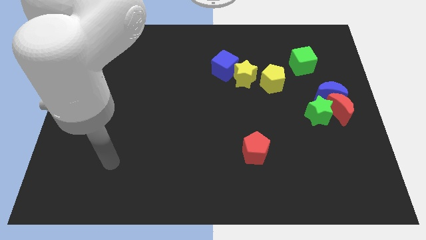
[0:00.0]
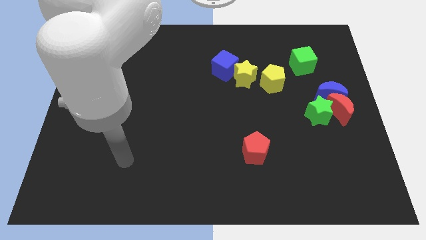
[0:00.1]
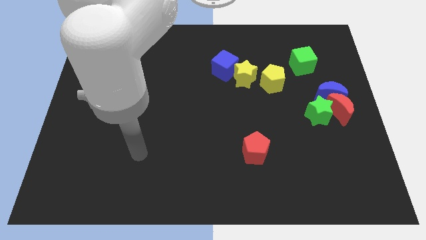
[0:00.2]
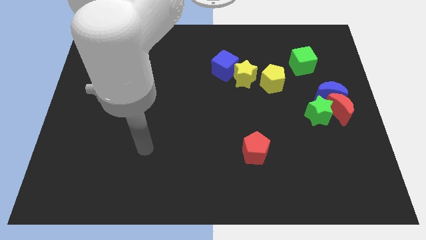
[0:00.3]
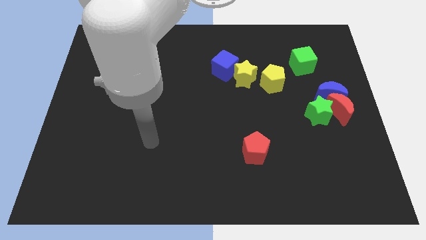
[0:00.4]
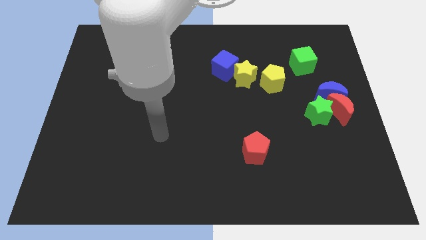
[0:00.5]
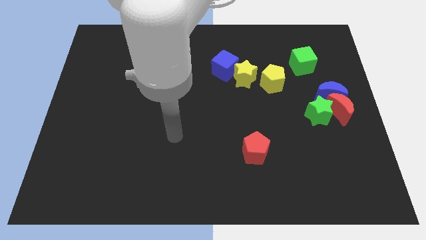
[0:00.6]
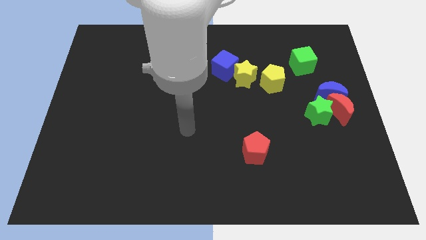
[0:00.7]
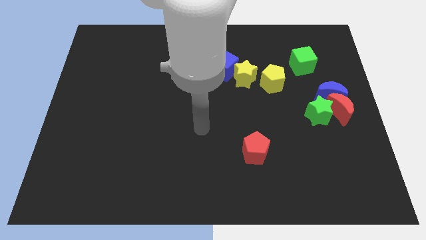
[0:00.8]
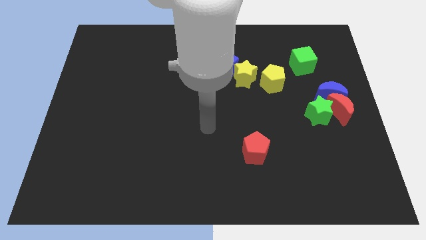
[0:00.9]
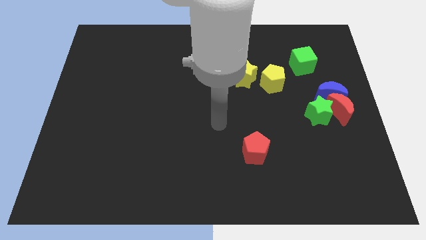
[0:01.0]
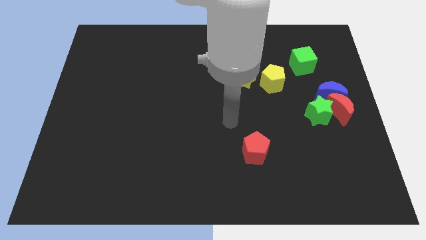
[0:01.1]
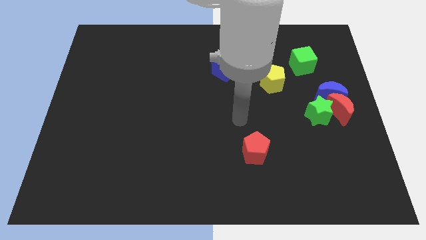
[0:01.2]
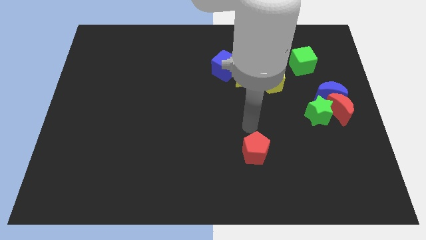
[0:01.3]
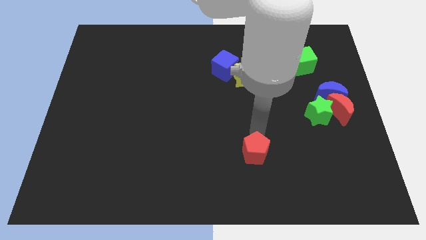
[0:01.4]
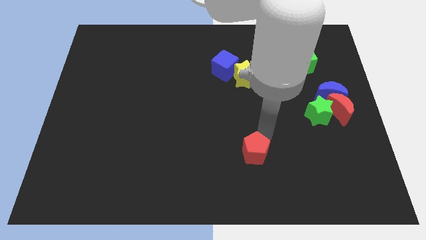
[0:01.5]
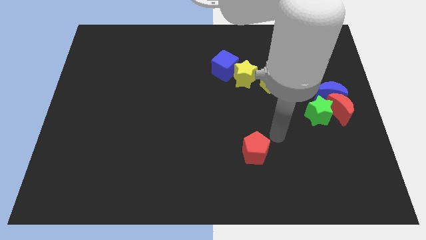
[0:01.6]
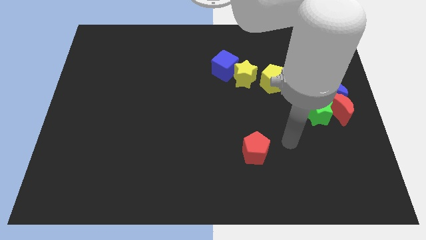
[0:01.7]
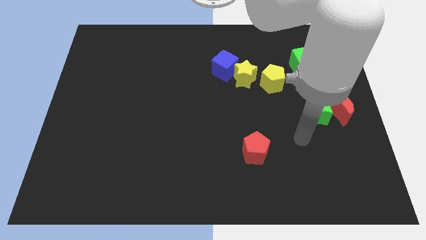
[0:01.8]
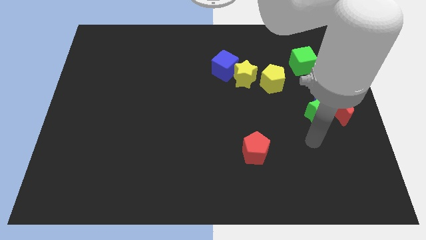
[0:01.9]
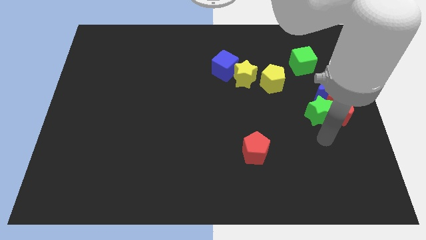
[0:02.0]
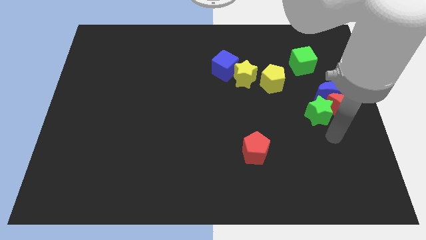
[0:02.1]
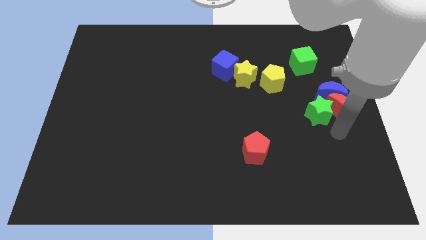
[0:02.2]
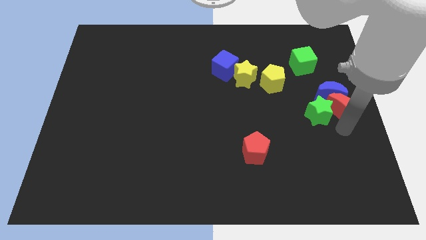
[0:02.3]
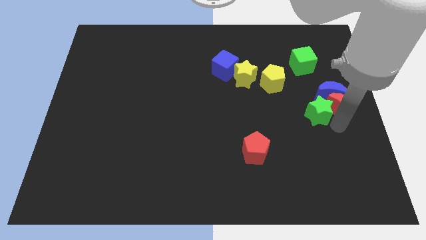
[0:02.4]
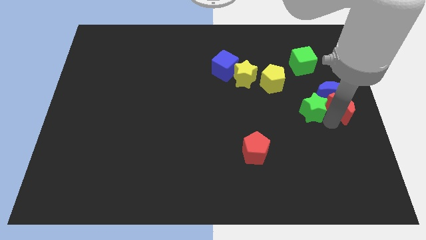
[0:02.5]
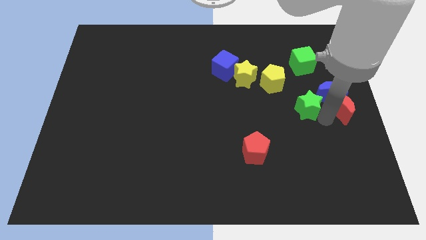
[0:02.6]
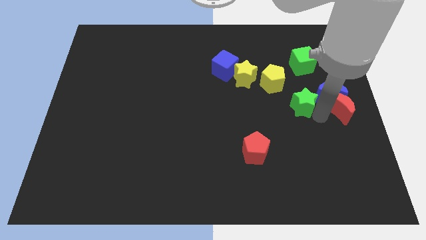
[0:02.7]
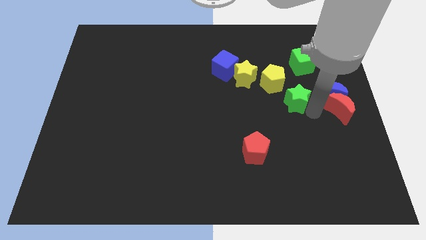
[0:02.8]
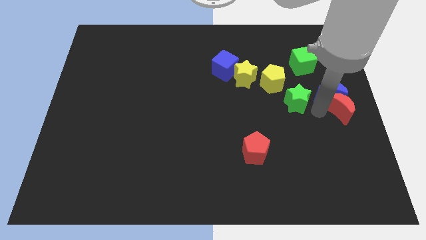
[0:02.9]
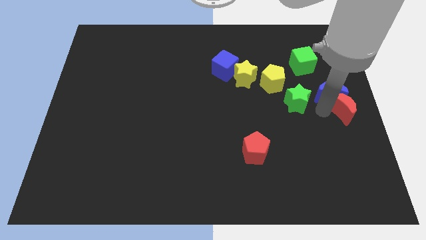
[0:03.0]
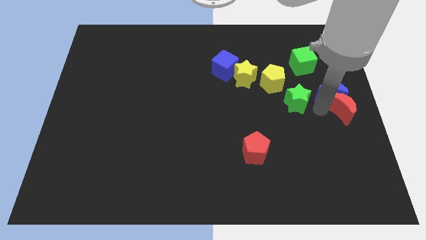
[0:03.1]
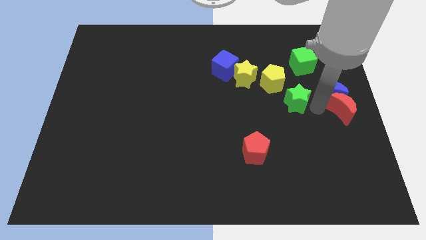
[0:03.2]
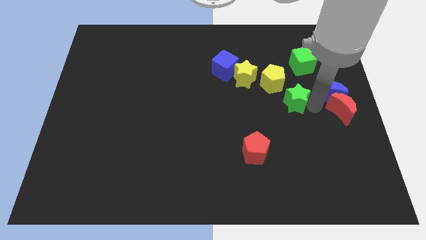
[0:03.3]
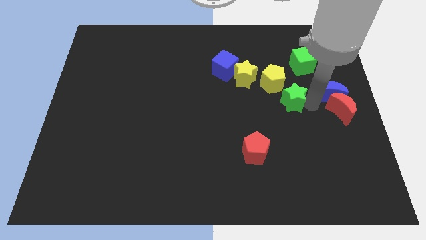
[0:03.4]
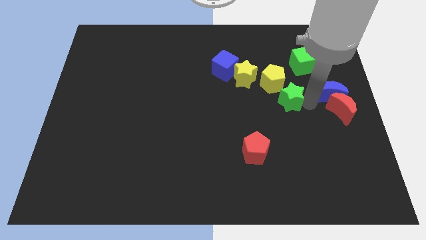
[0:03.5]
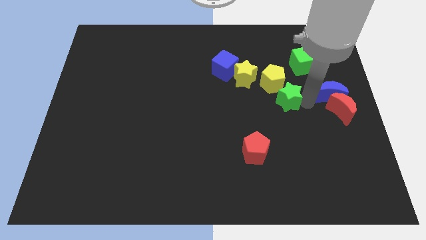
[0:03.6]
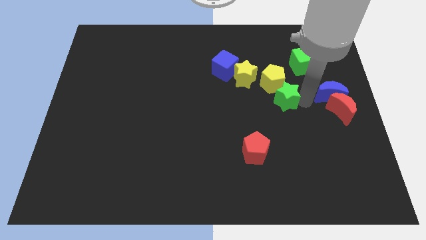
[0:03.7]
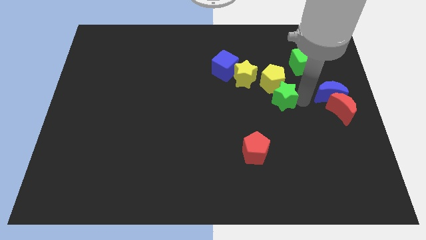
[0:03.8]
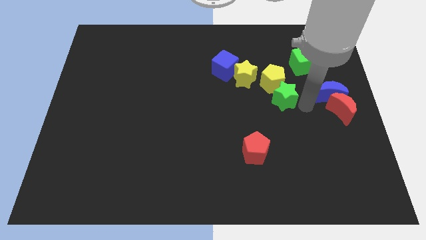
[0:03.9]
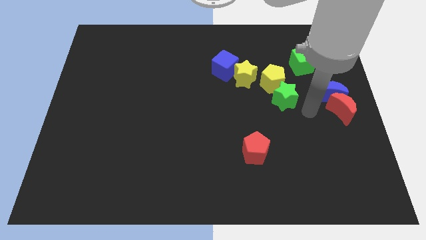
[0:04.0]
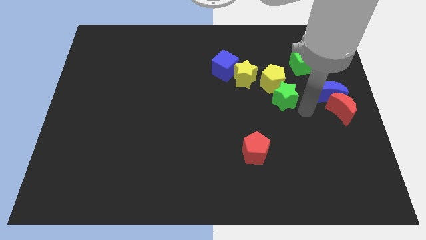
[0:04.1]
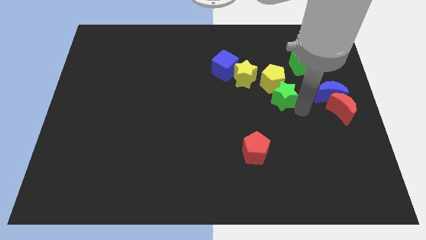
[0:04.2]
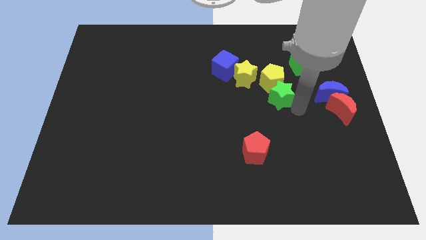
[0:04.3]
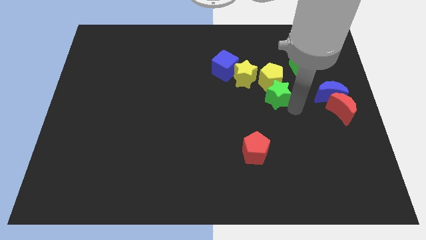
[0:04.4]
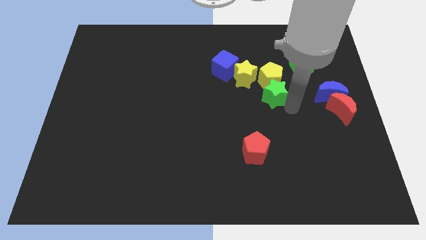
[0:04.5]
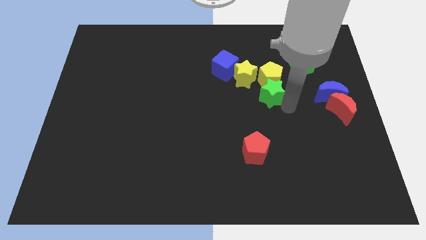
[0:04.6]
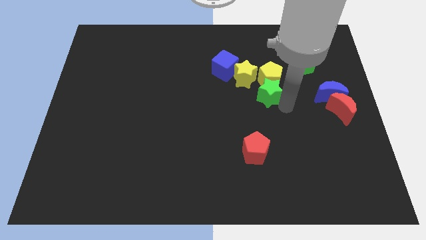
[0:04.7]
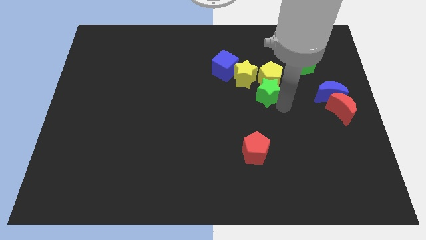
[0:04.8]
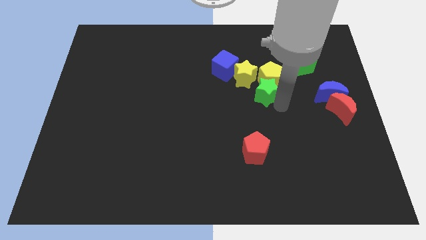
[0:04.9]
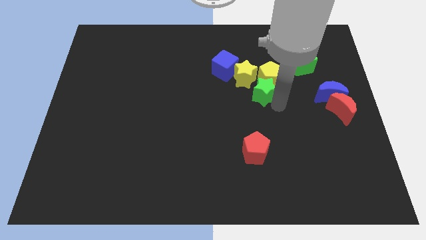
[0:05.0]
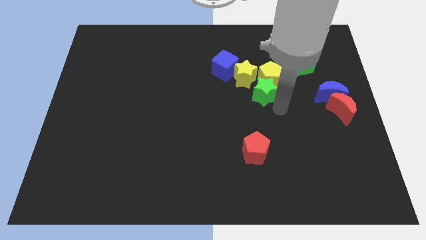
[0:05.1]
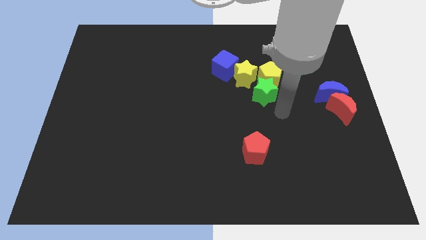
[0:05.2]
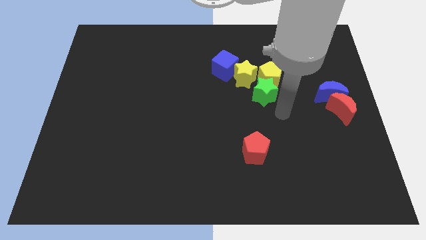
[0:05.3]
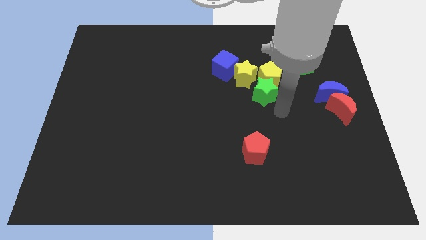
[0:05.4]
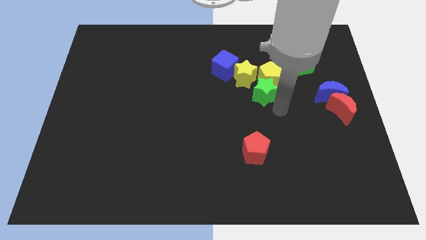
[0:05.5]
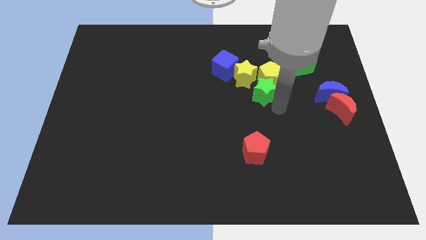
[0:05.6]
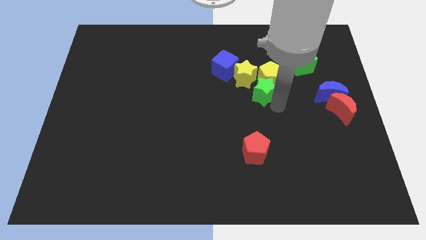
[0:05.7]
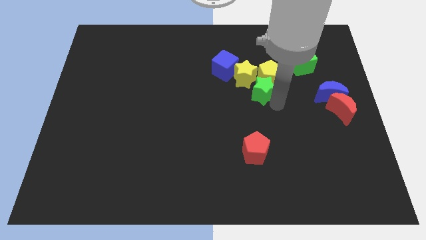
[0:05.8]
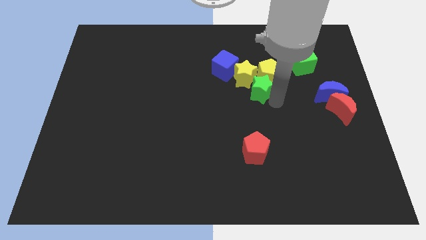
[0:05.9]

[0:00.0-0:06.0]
push the green star to the yellow star
